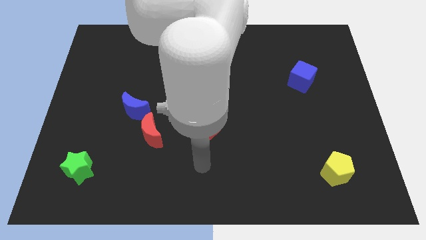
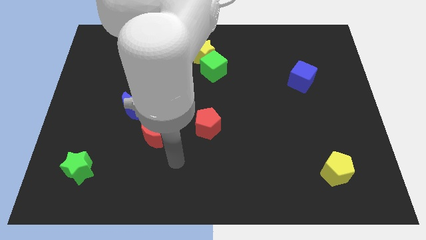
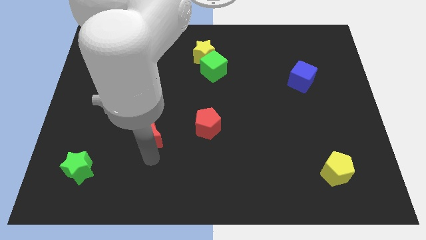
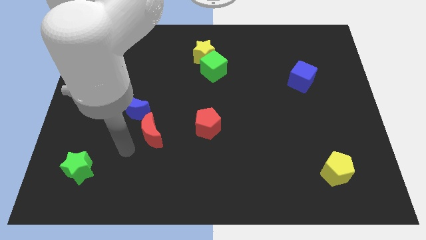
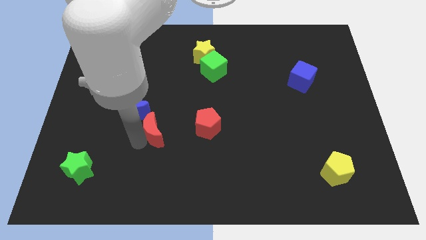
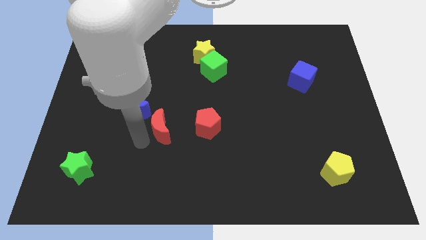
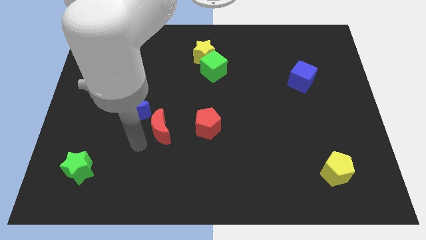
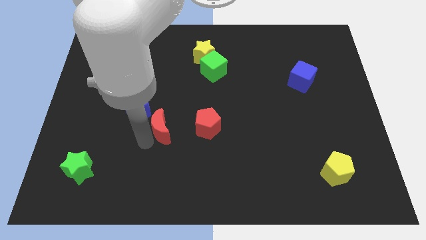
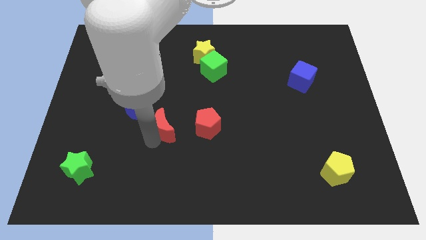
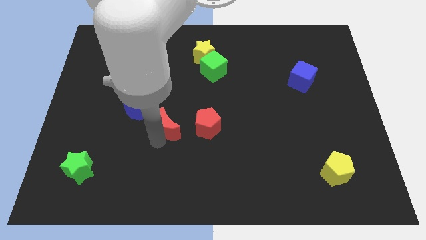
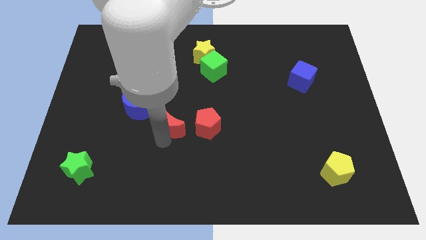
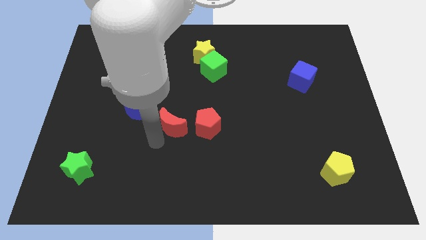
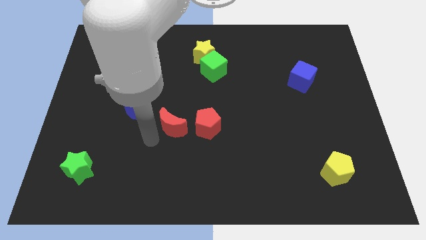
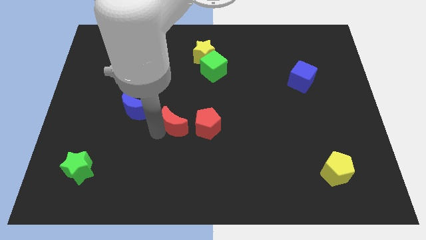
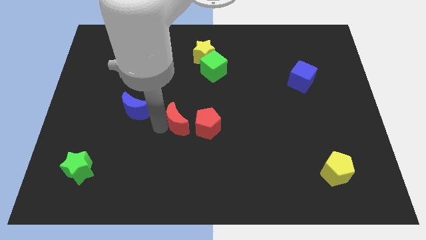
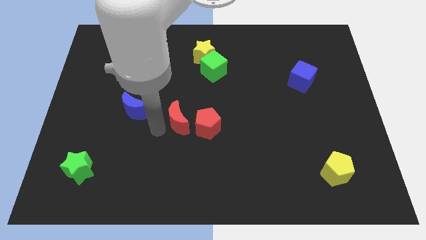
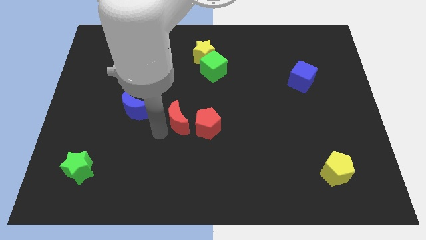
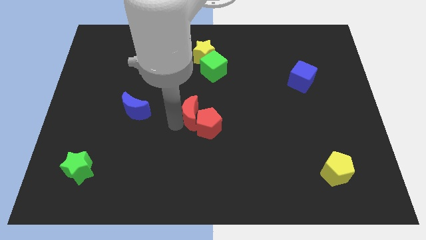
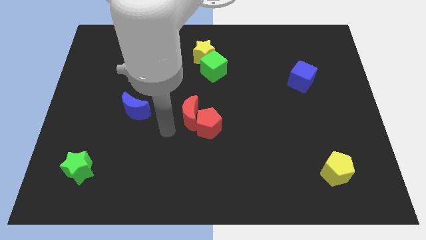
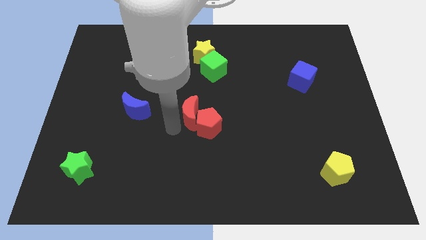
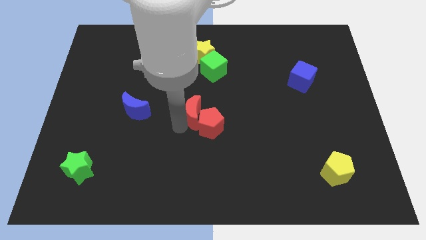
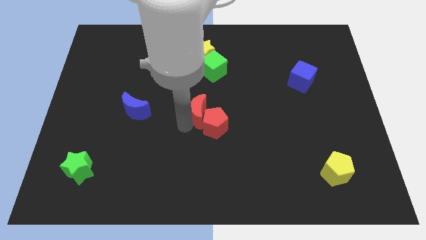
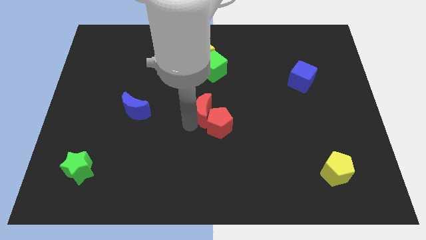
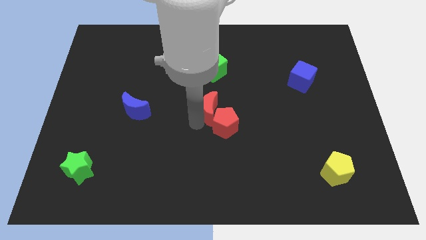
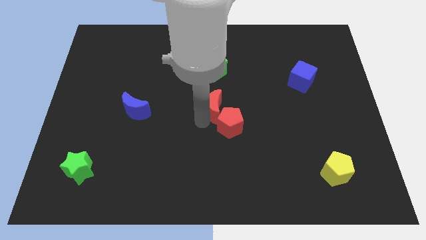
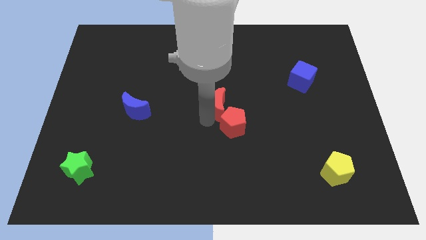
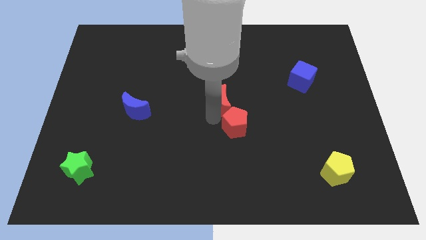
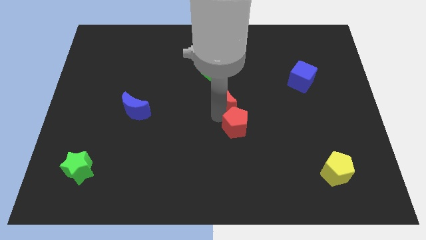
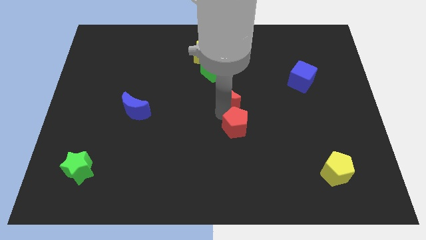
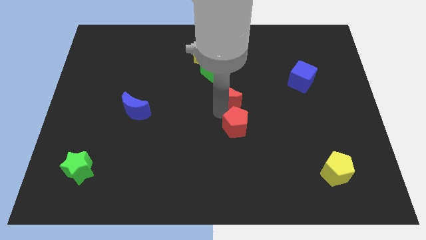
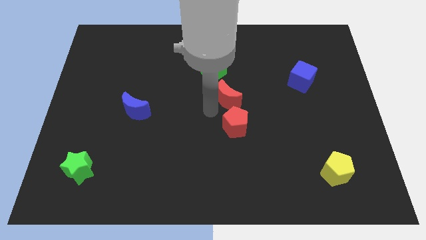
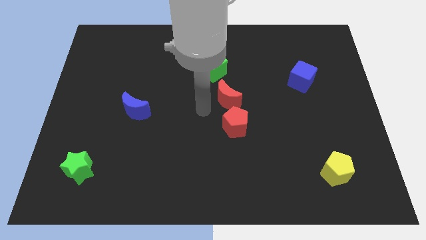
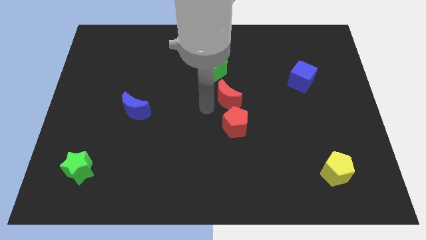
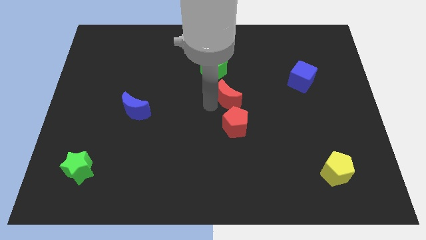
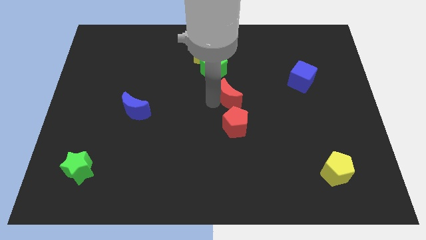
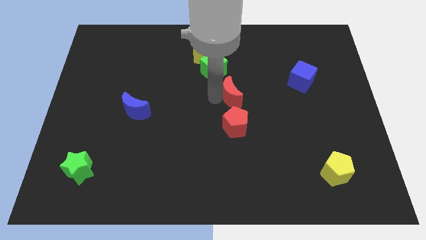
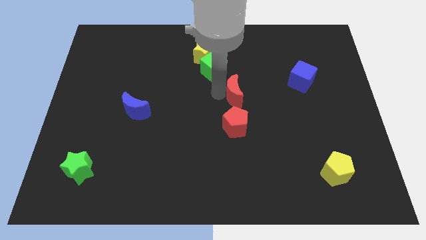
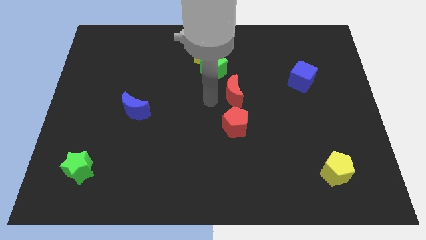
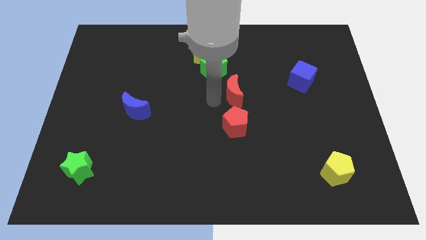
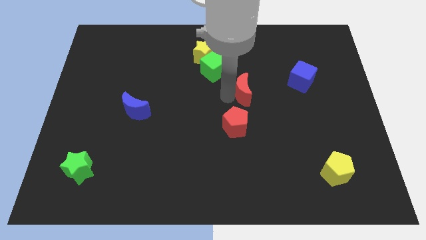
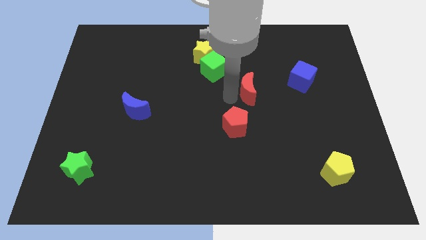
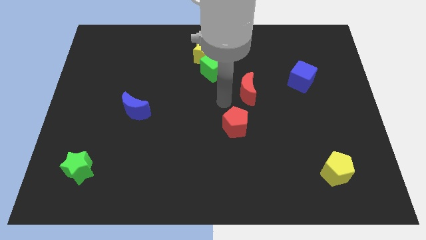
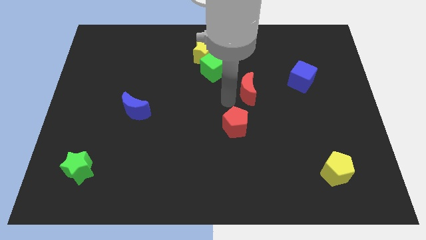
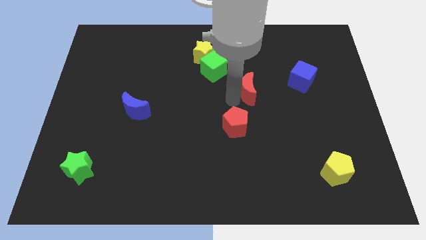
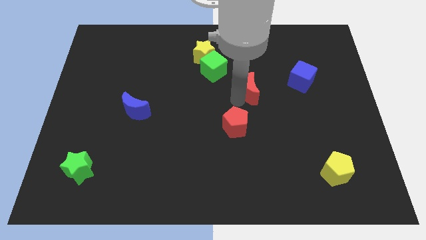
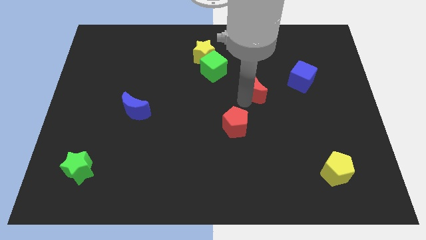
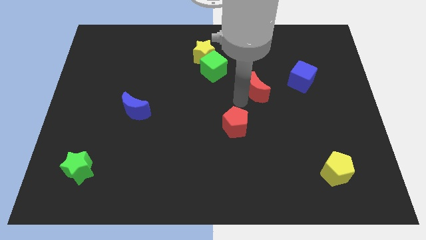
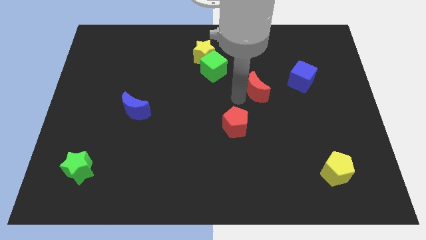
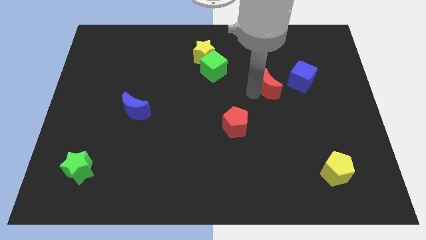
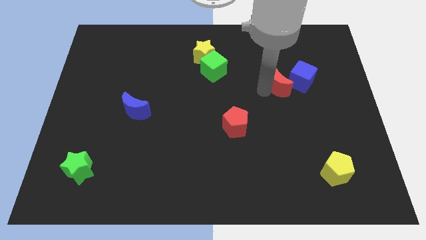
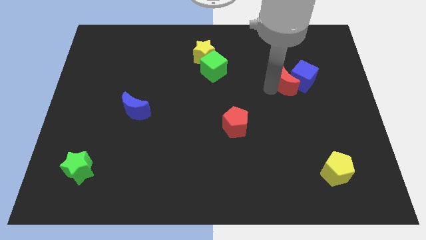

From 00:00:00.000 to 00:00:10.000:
put the red moon next to the blue cube

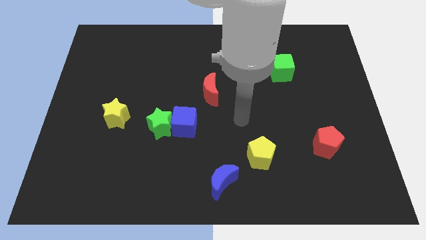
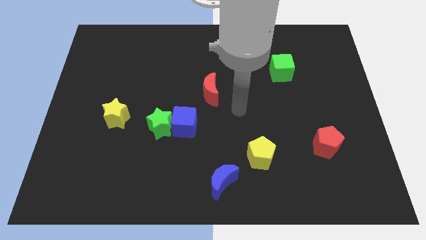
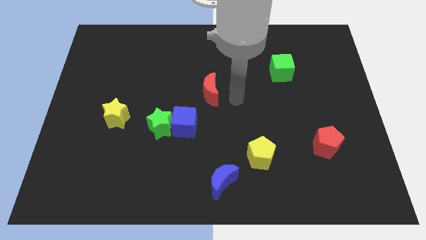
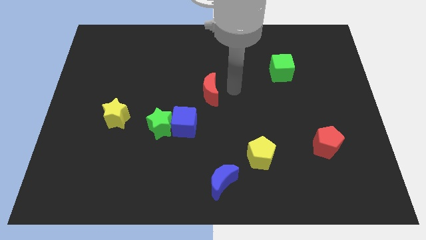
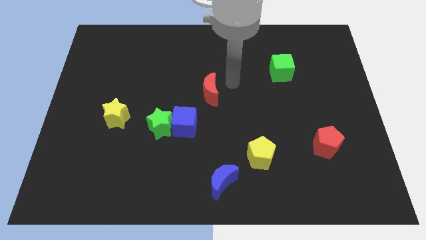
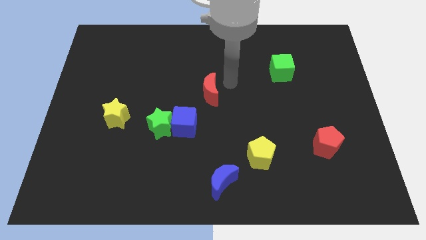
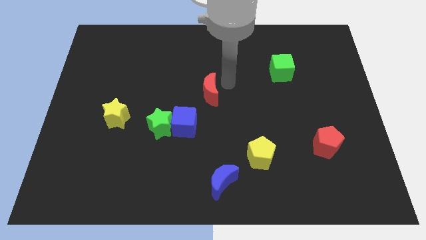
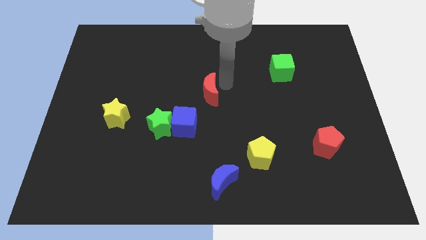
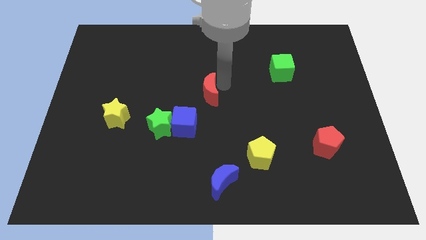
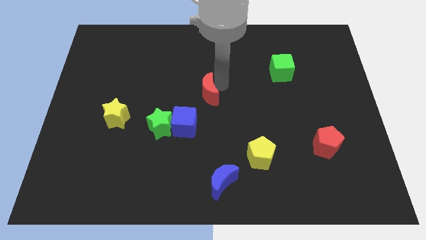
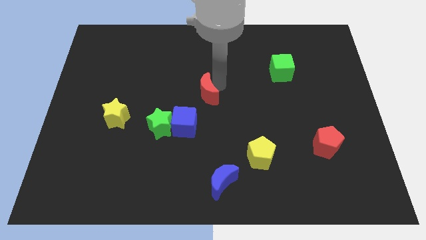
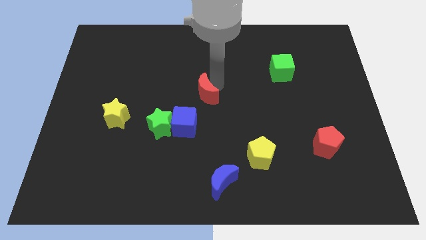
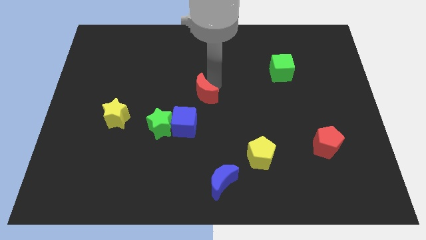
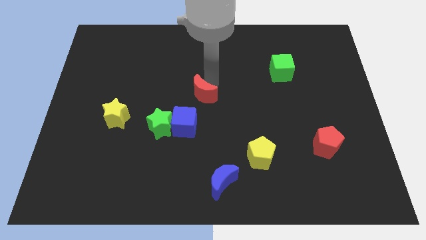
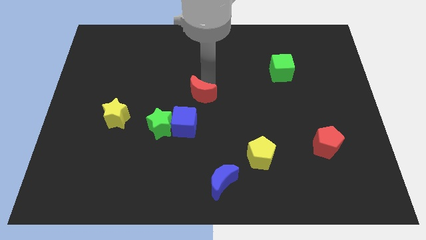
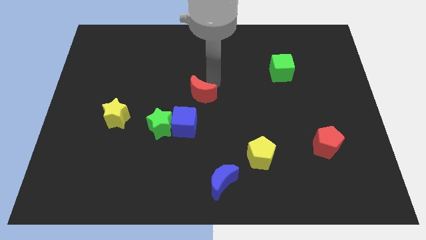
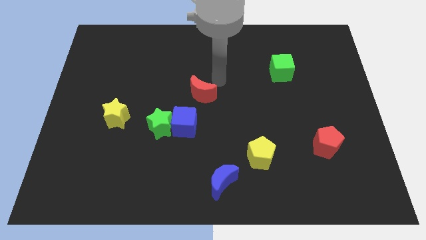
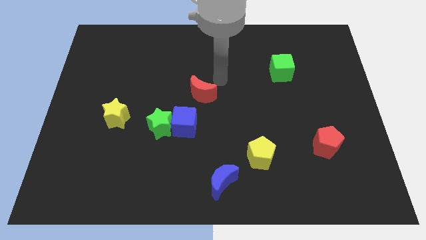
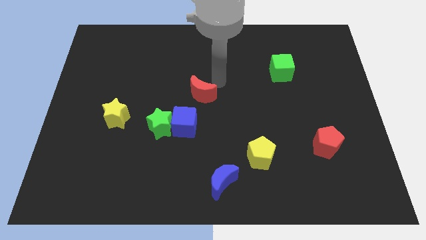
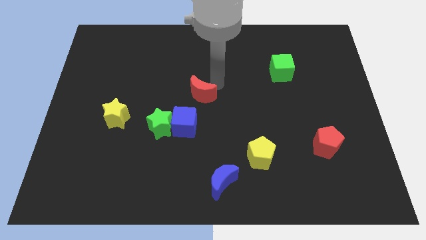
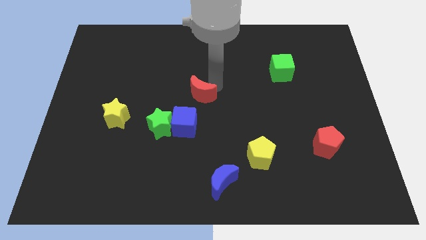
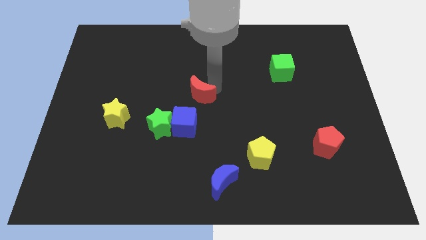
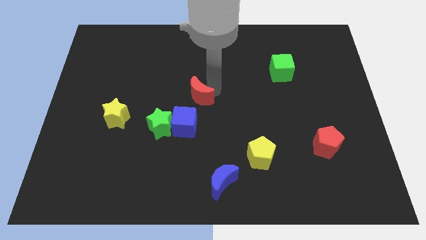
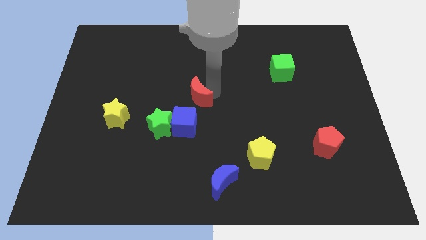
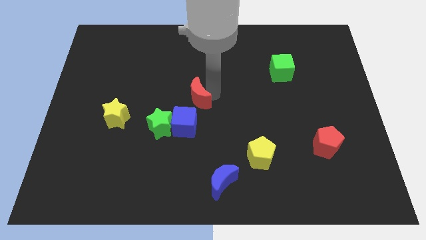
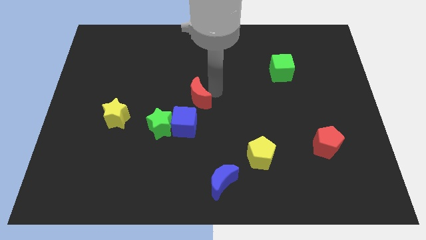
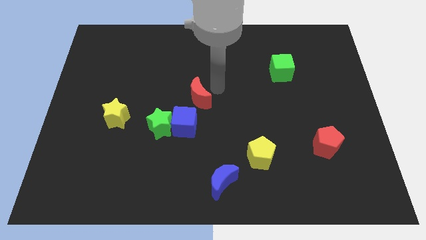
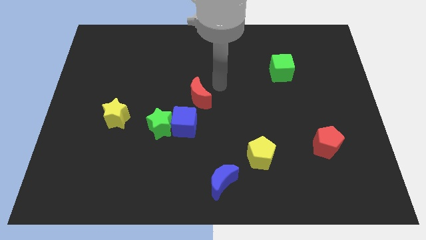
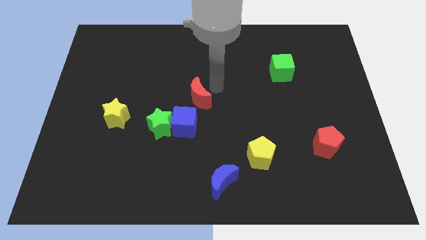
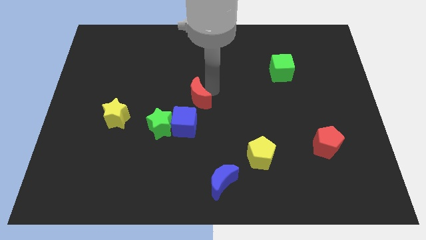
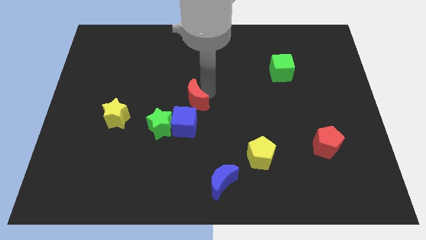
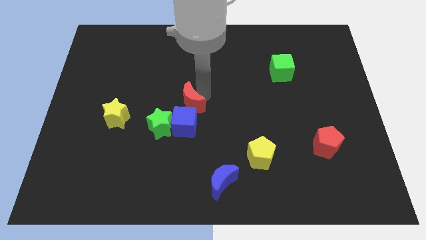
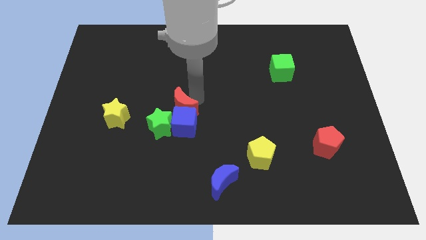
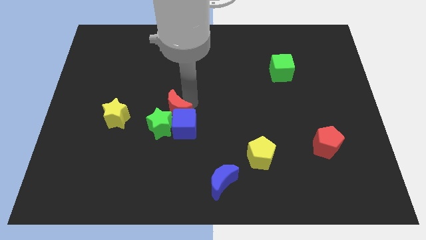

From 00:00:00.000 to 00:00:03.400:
push the red moon to the green star
